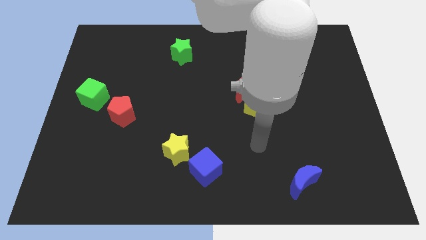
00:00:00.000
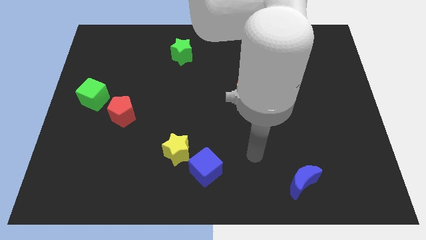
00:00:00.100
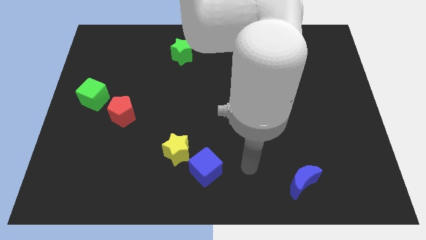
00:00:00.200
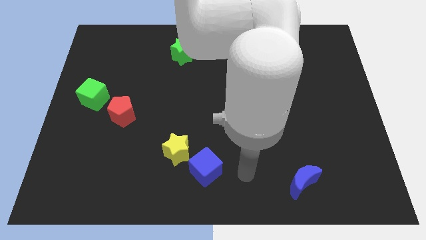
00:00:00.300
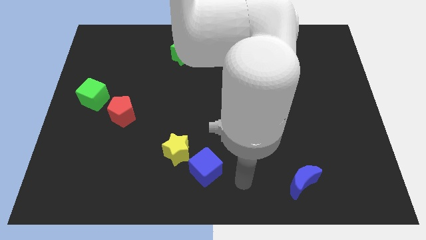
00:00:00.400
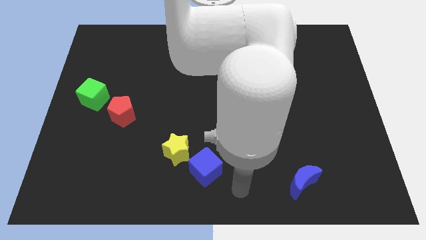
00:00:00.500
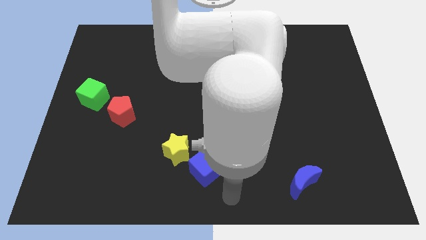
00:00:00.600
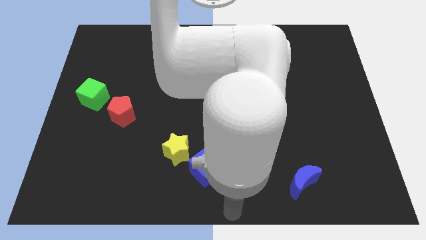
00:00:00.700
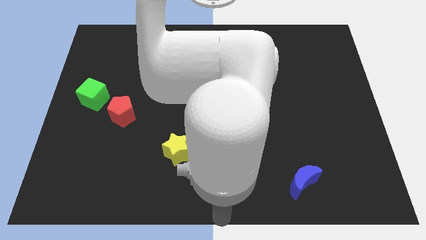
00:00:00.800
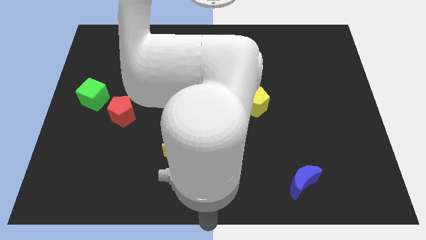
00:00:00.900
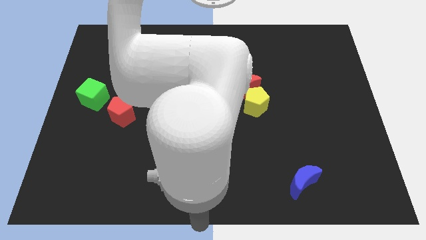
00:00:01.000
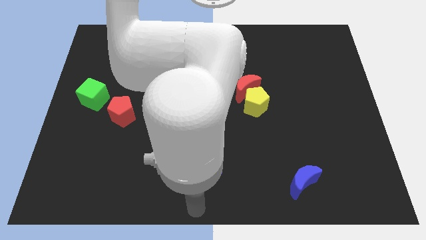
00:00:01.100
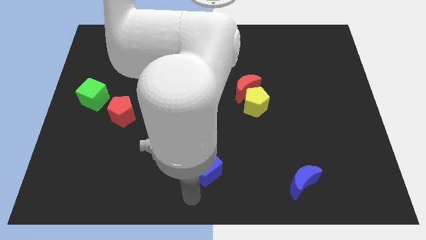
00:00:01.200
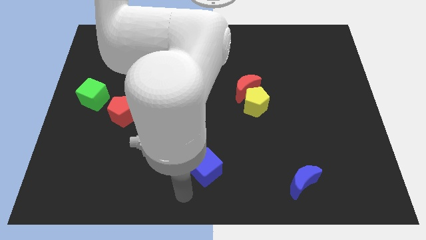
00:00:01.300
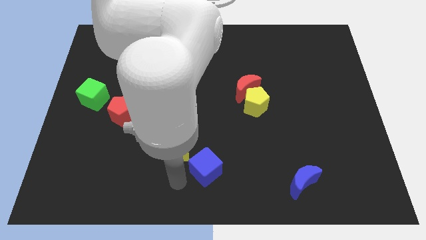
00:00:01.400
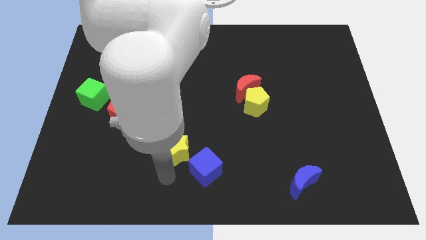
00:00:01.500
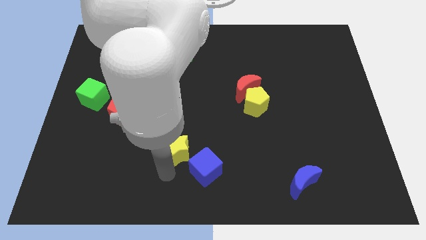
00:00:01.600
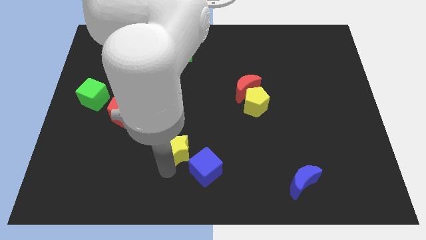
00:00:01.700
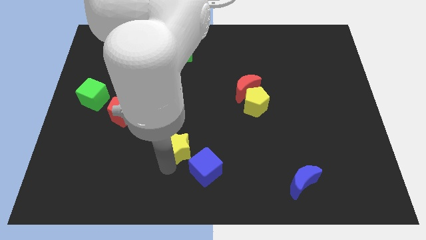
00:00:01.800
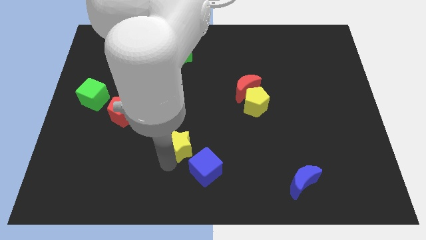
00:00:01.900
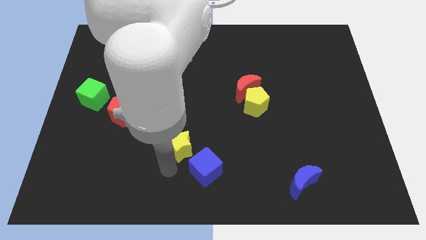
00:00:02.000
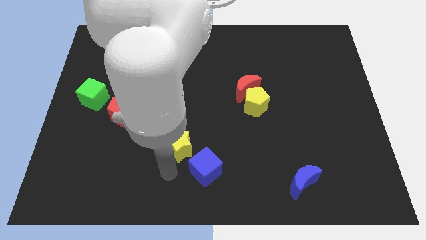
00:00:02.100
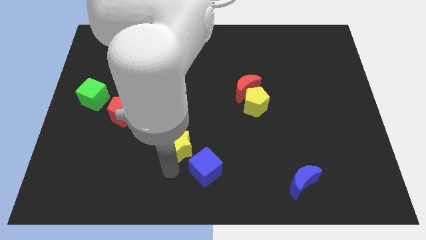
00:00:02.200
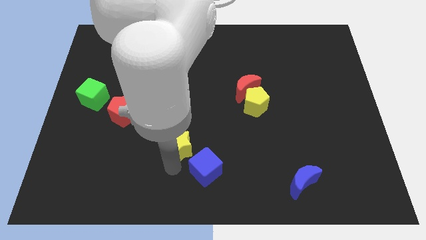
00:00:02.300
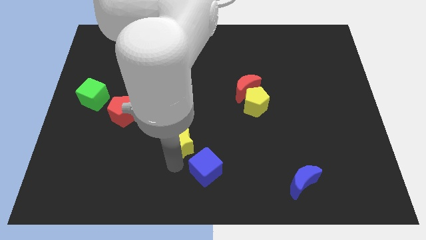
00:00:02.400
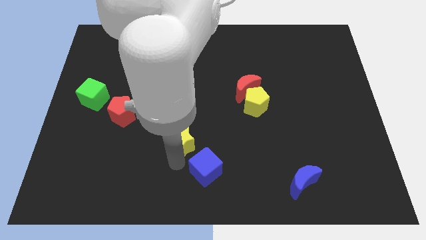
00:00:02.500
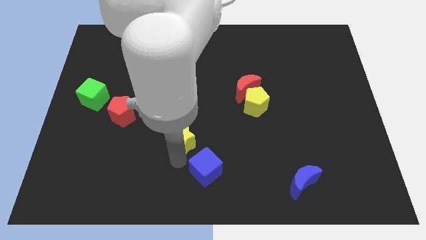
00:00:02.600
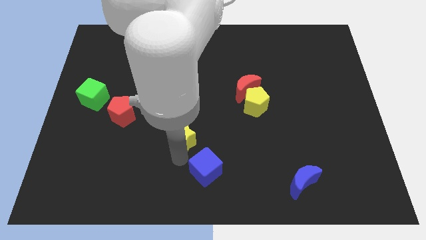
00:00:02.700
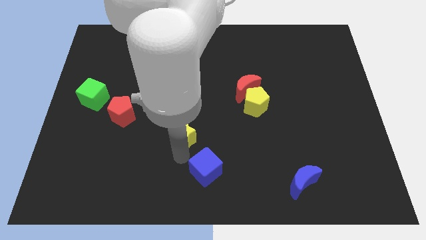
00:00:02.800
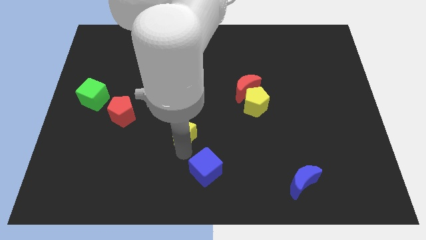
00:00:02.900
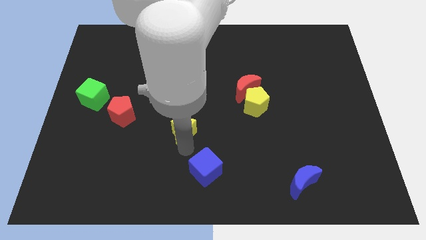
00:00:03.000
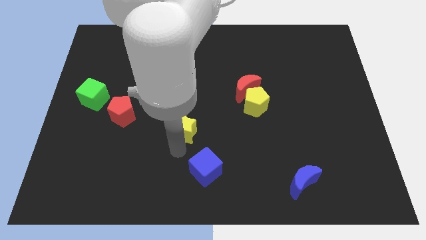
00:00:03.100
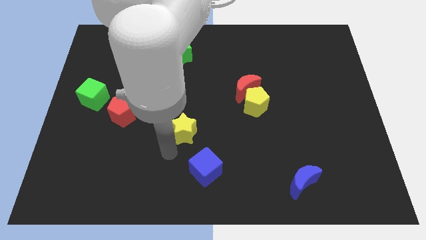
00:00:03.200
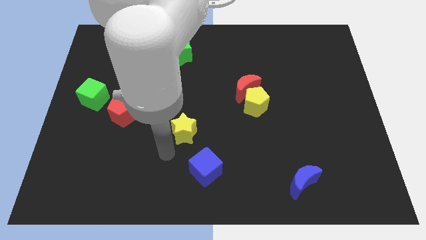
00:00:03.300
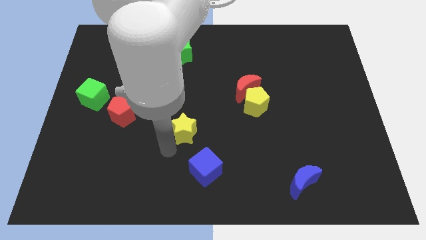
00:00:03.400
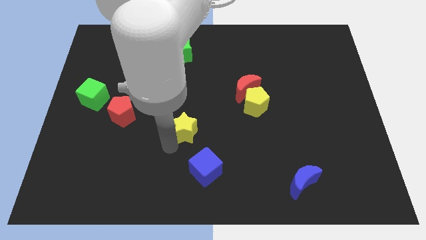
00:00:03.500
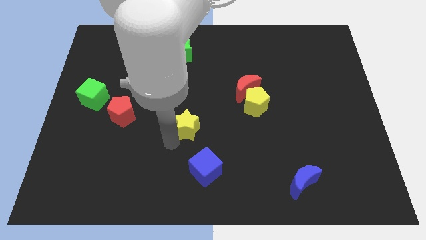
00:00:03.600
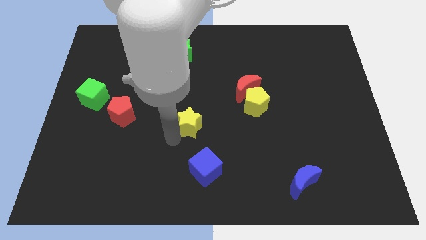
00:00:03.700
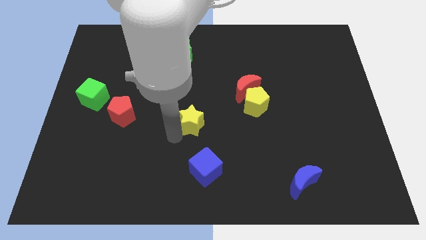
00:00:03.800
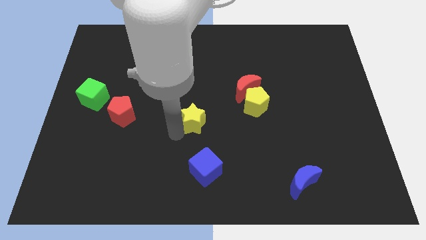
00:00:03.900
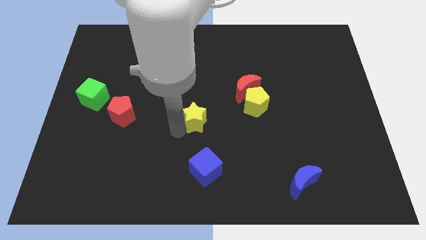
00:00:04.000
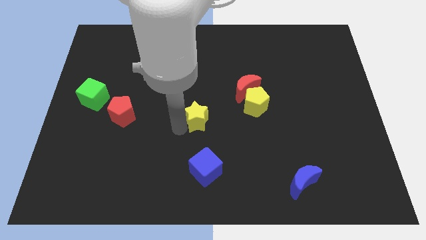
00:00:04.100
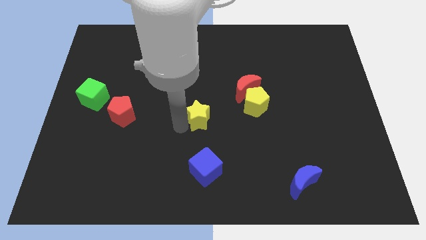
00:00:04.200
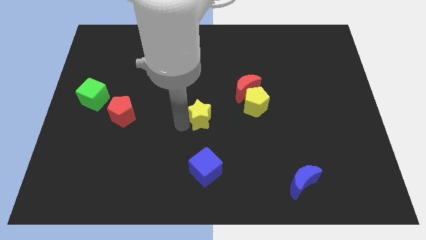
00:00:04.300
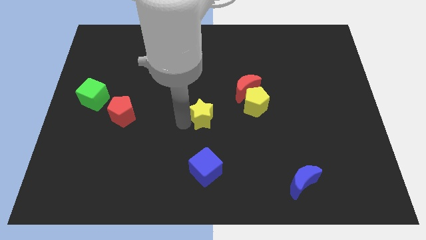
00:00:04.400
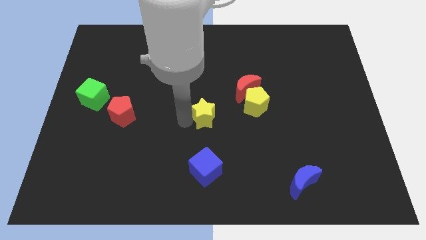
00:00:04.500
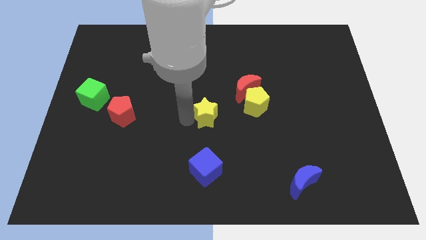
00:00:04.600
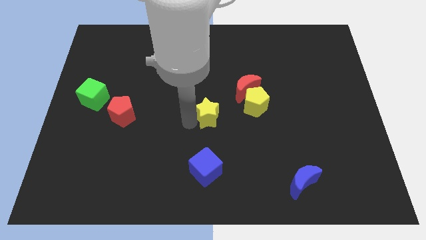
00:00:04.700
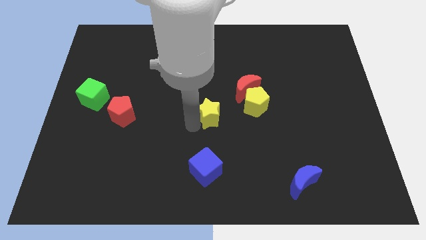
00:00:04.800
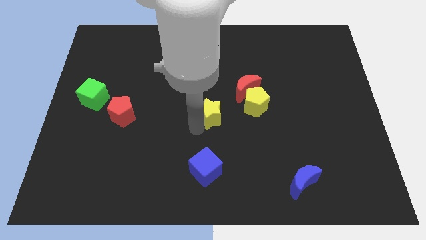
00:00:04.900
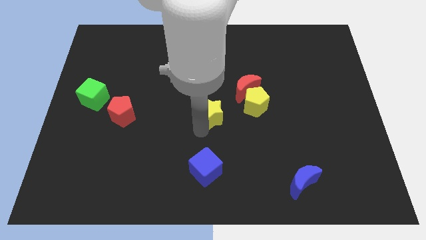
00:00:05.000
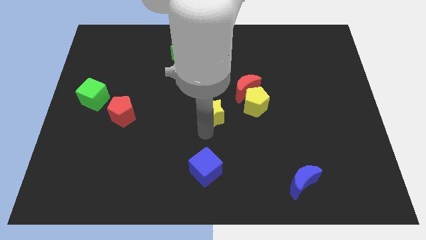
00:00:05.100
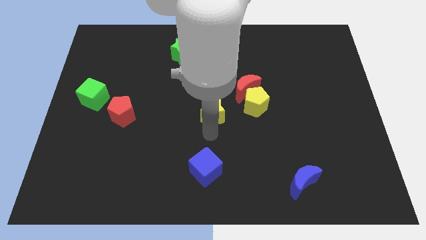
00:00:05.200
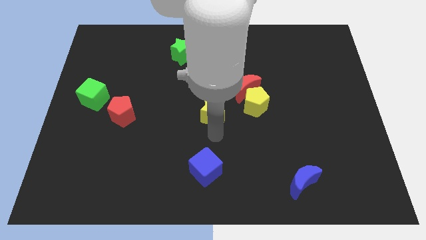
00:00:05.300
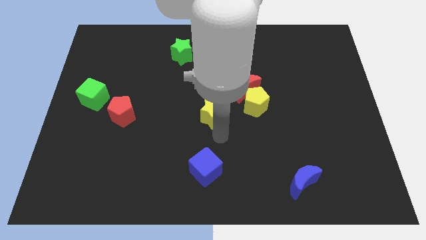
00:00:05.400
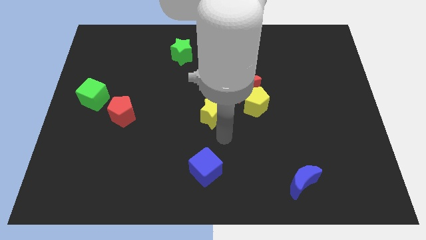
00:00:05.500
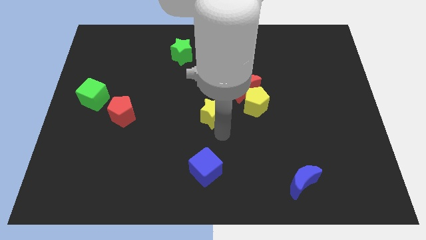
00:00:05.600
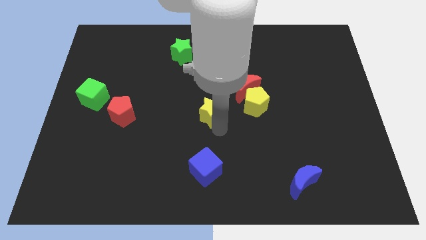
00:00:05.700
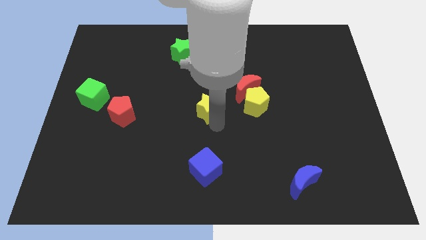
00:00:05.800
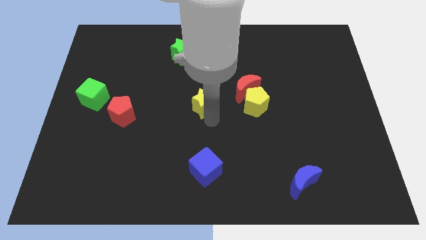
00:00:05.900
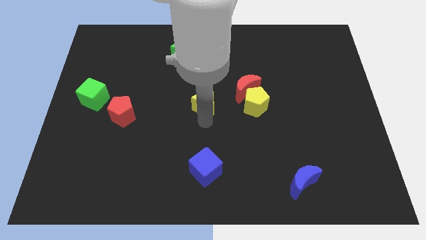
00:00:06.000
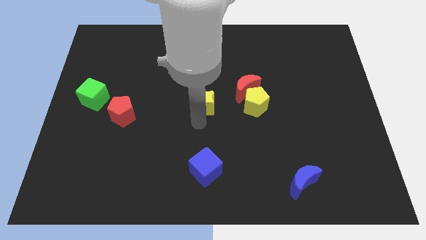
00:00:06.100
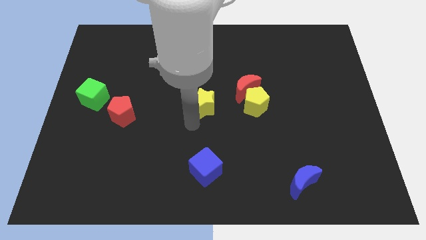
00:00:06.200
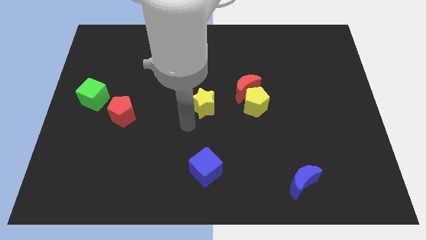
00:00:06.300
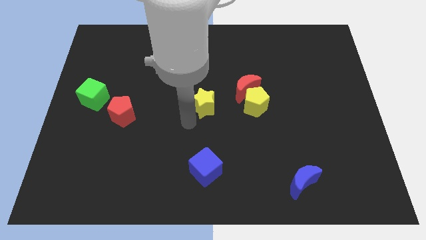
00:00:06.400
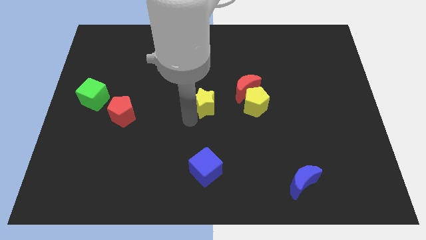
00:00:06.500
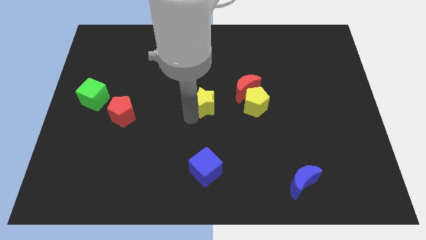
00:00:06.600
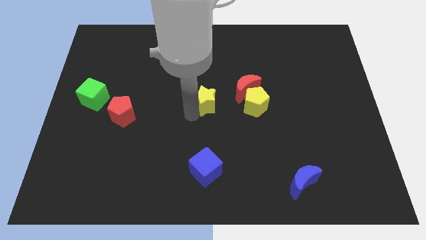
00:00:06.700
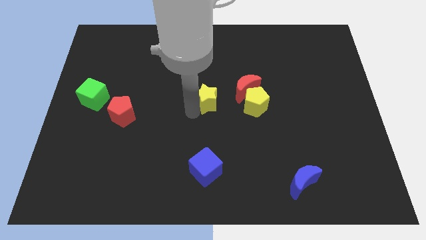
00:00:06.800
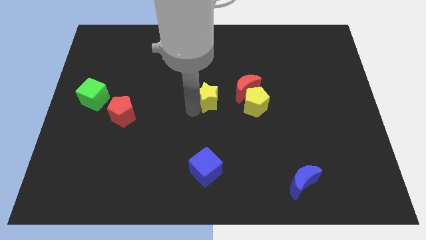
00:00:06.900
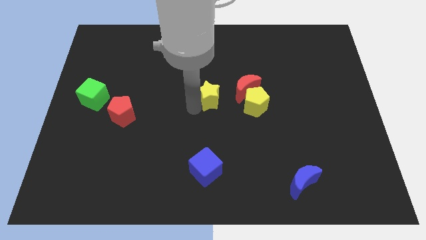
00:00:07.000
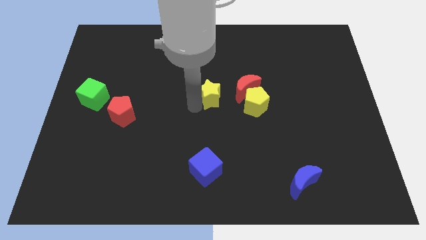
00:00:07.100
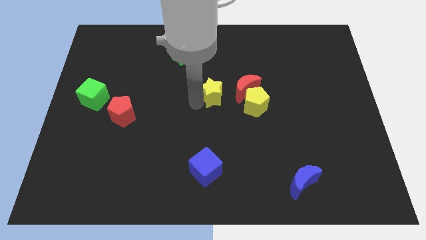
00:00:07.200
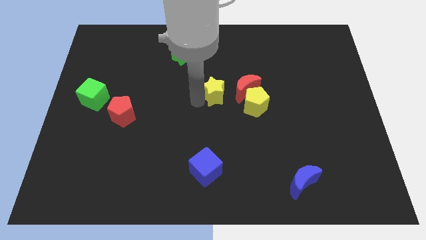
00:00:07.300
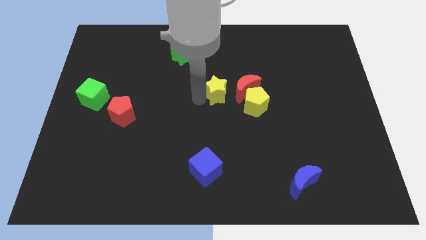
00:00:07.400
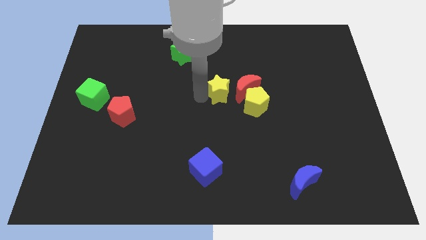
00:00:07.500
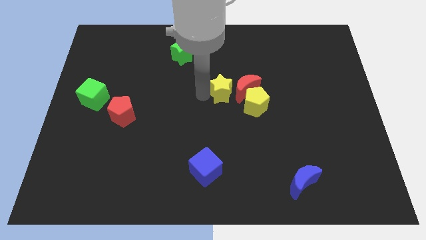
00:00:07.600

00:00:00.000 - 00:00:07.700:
push the yellow star to the top left side of the red moon
